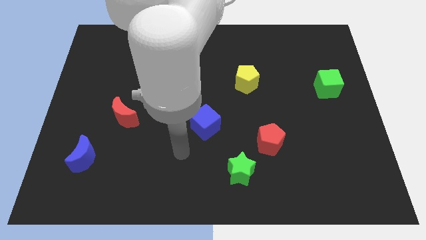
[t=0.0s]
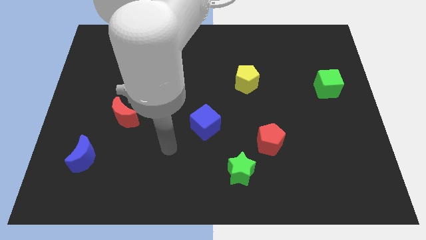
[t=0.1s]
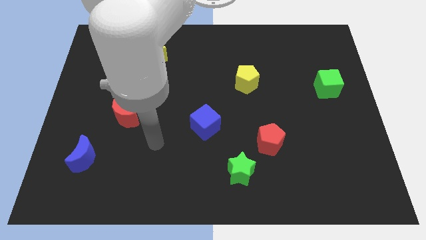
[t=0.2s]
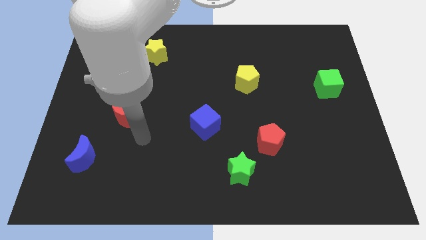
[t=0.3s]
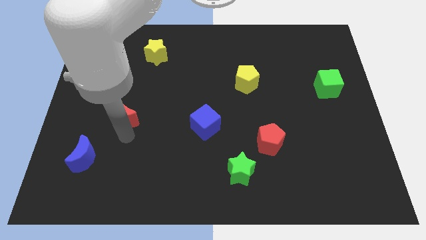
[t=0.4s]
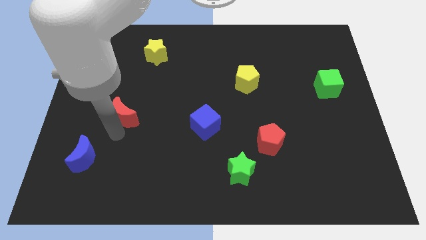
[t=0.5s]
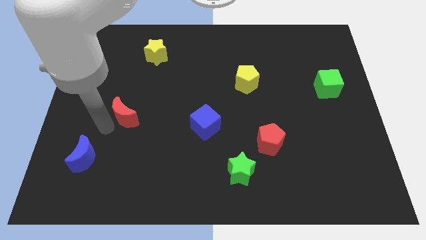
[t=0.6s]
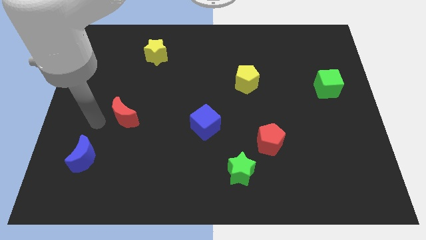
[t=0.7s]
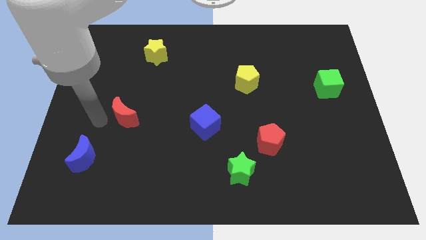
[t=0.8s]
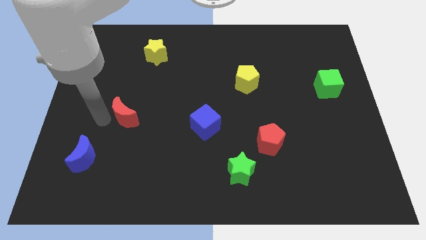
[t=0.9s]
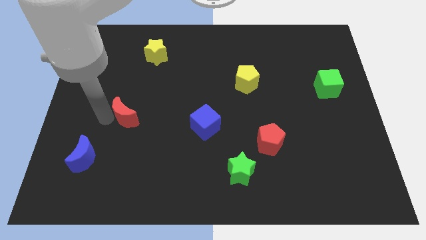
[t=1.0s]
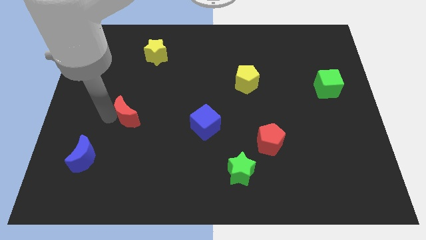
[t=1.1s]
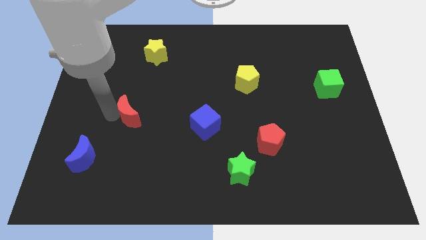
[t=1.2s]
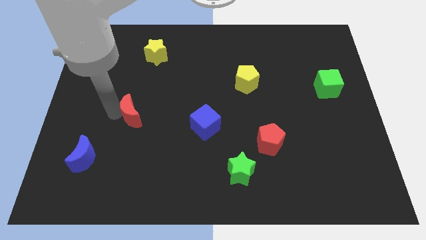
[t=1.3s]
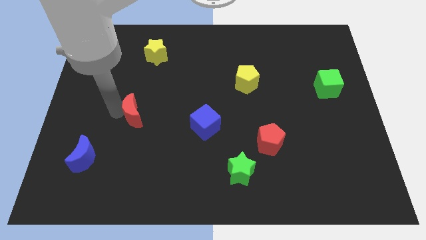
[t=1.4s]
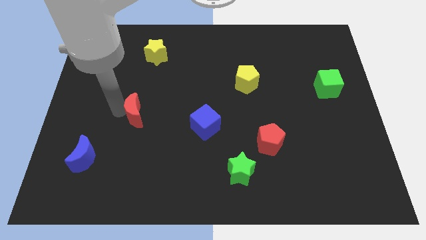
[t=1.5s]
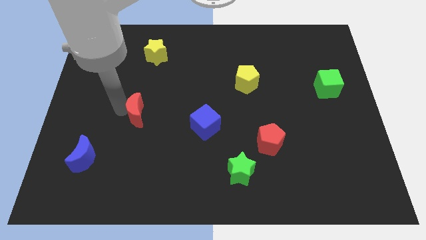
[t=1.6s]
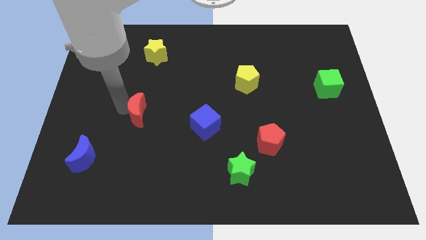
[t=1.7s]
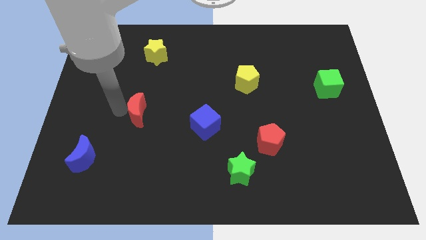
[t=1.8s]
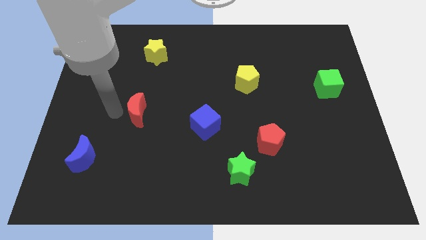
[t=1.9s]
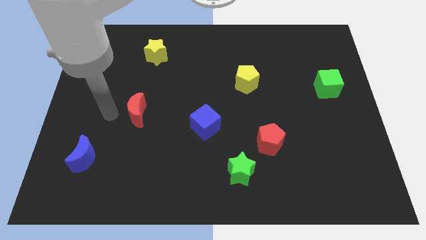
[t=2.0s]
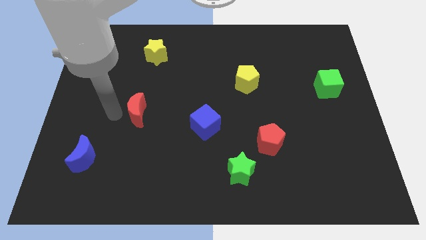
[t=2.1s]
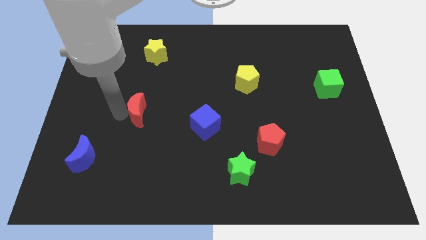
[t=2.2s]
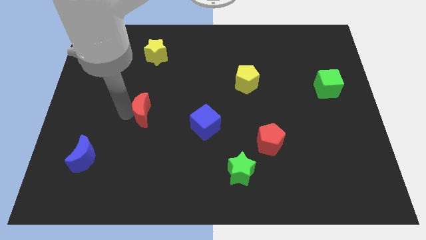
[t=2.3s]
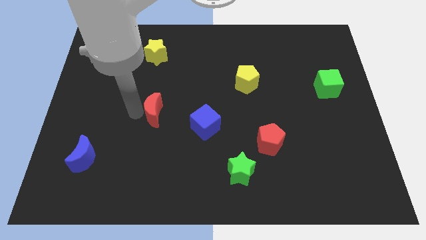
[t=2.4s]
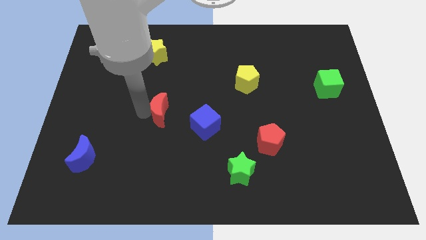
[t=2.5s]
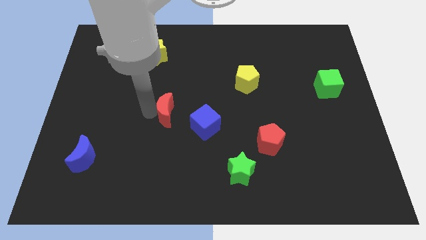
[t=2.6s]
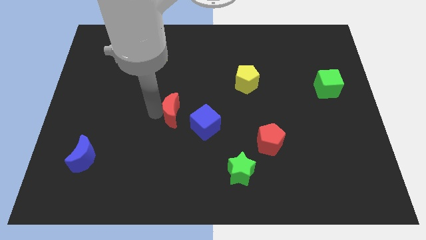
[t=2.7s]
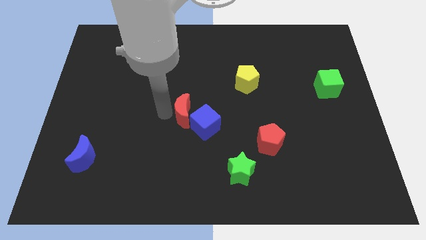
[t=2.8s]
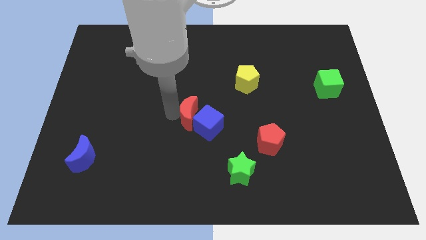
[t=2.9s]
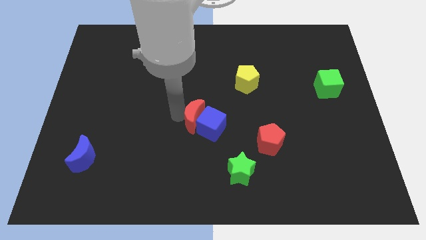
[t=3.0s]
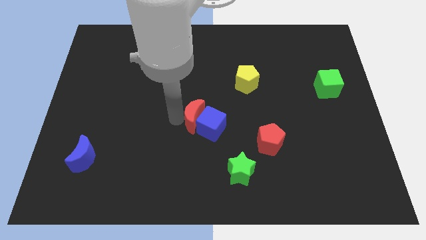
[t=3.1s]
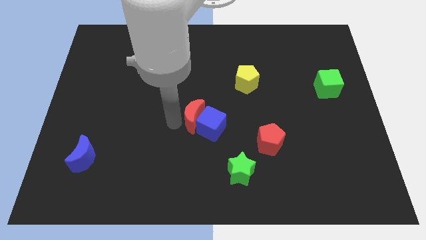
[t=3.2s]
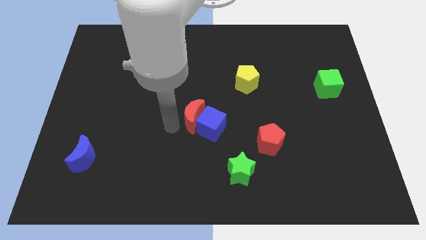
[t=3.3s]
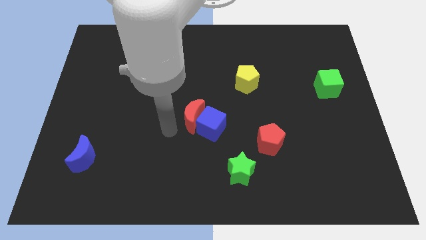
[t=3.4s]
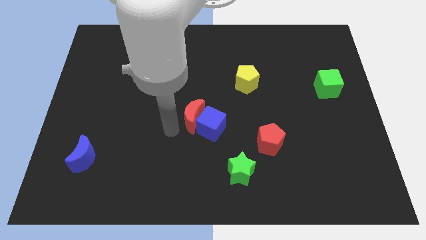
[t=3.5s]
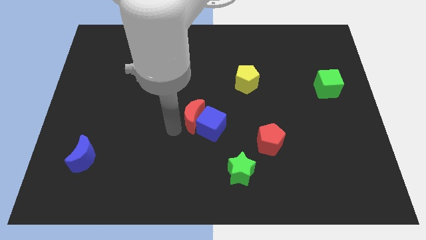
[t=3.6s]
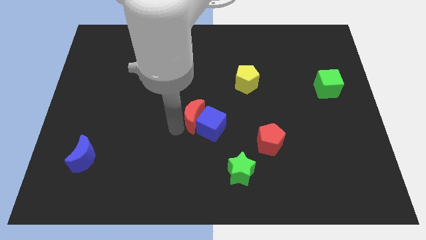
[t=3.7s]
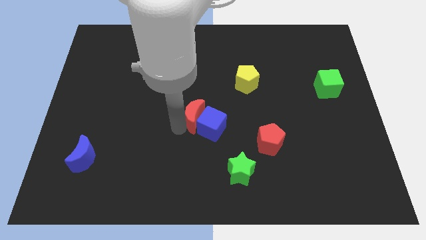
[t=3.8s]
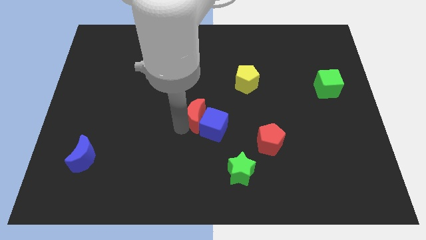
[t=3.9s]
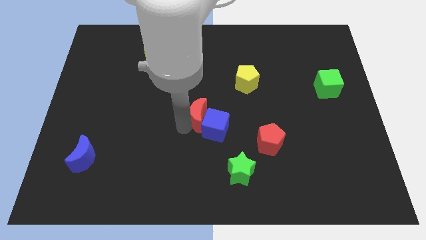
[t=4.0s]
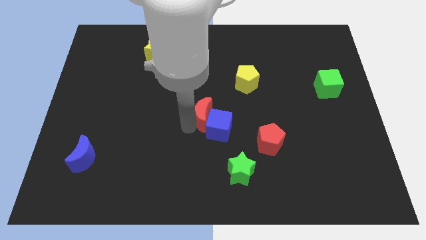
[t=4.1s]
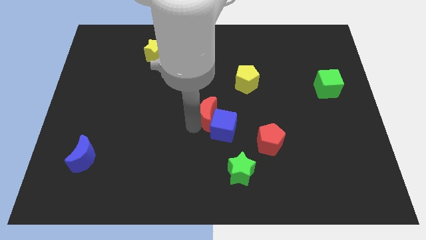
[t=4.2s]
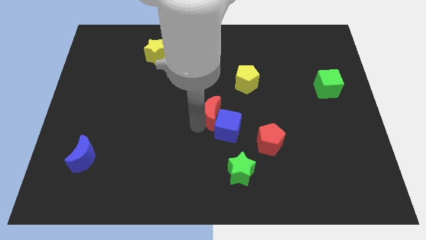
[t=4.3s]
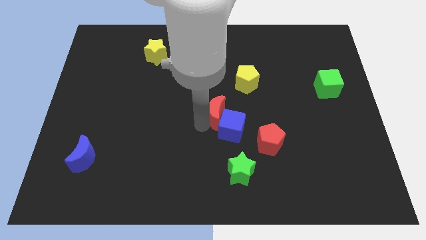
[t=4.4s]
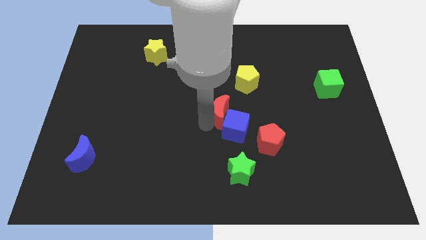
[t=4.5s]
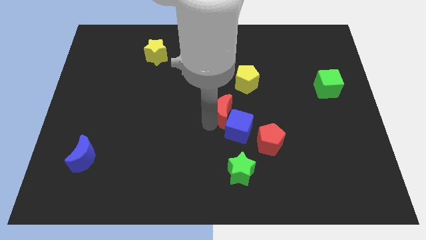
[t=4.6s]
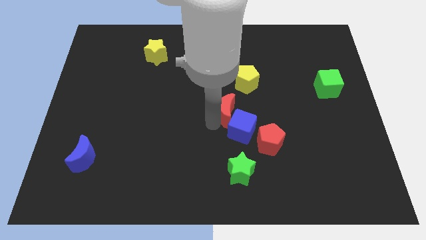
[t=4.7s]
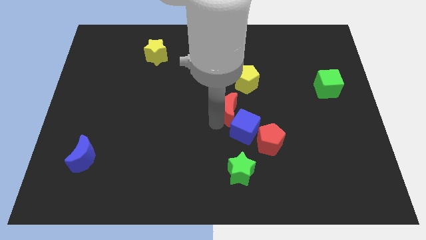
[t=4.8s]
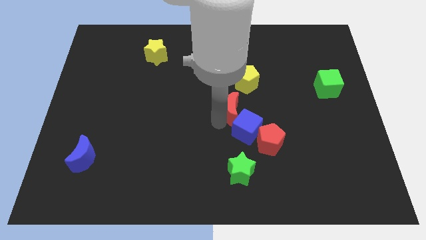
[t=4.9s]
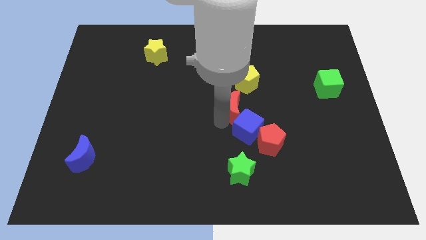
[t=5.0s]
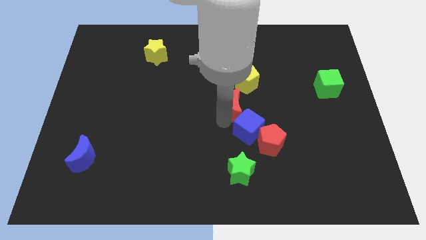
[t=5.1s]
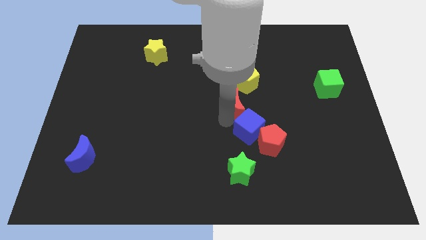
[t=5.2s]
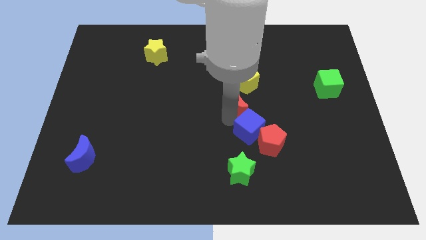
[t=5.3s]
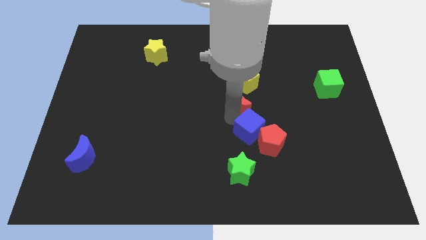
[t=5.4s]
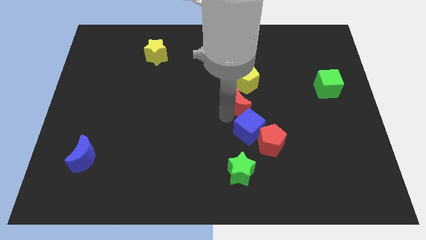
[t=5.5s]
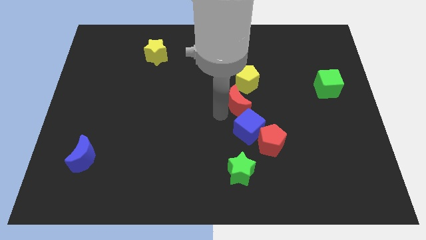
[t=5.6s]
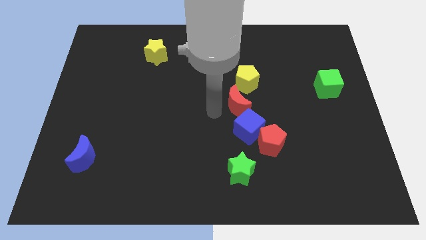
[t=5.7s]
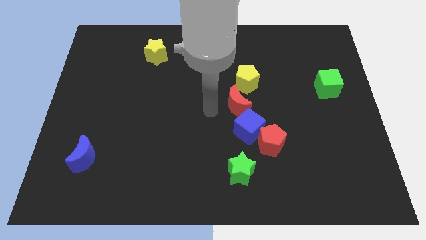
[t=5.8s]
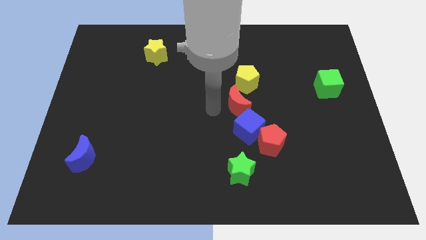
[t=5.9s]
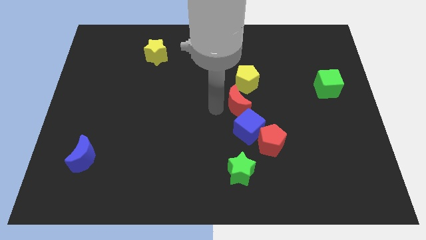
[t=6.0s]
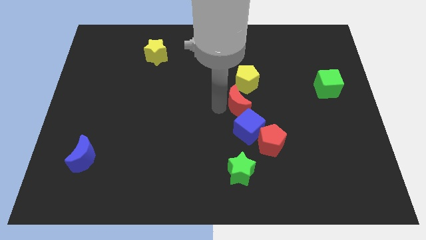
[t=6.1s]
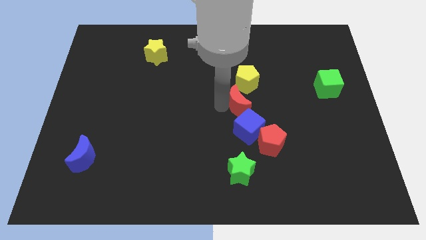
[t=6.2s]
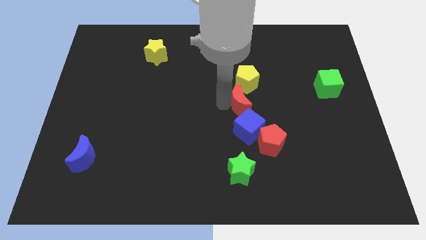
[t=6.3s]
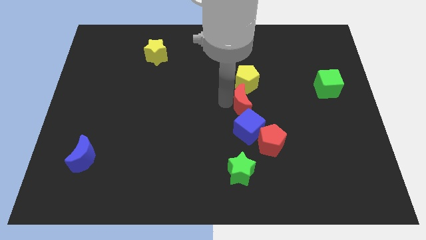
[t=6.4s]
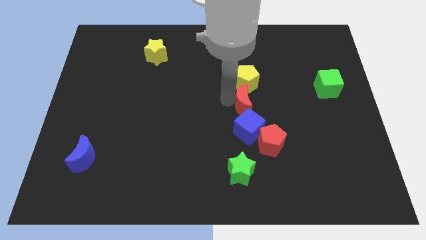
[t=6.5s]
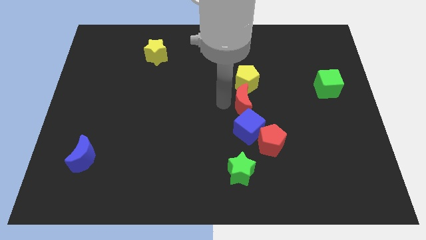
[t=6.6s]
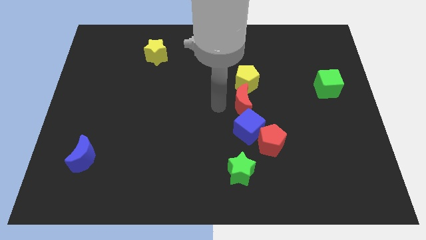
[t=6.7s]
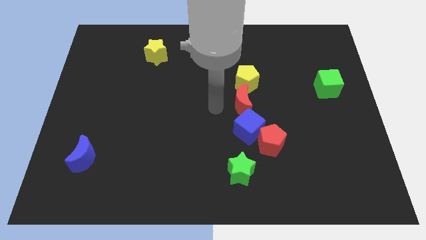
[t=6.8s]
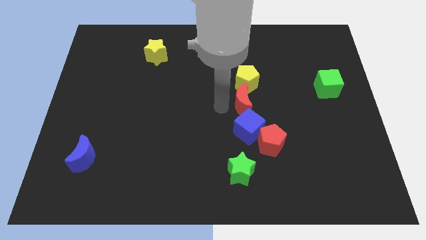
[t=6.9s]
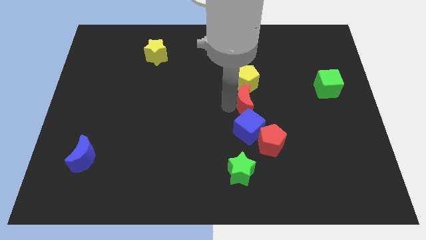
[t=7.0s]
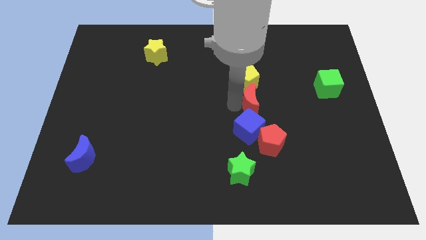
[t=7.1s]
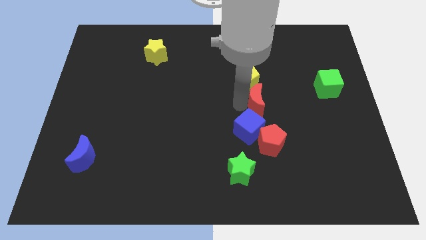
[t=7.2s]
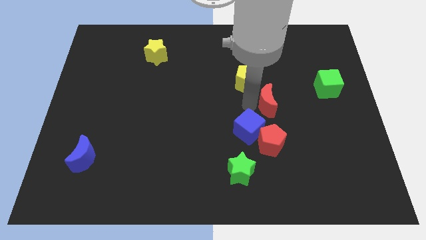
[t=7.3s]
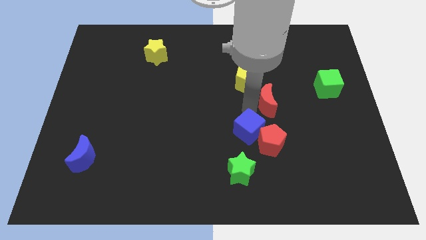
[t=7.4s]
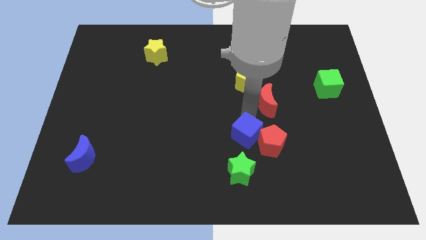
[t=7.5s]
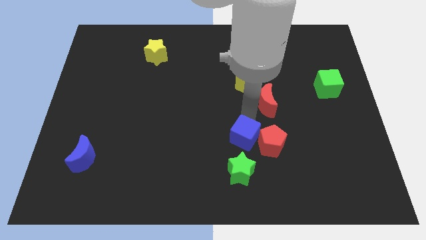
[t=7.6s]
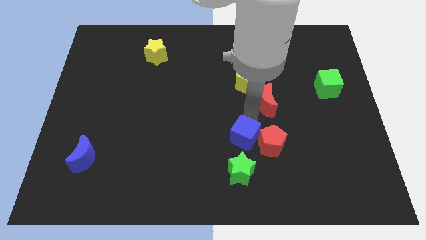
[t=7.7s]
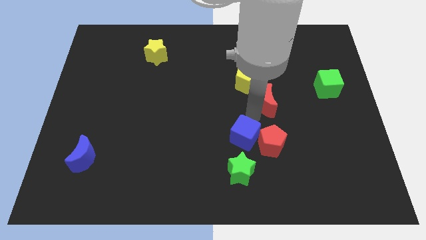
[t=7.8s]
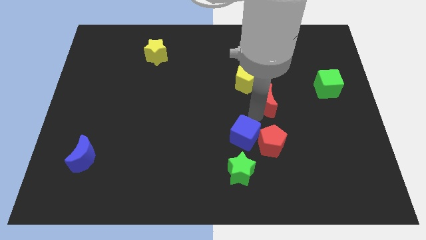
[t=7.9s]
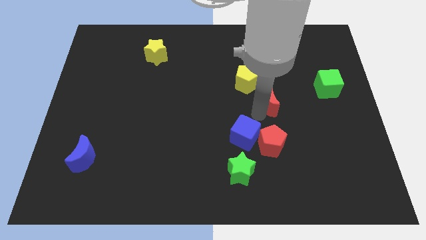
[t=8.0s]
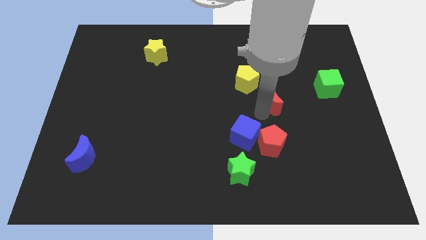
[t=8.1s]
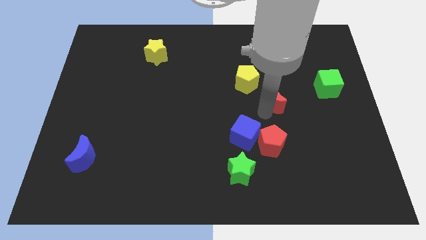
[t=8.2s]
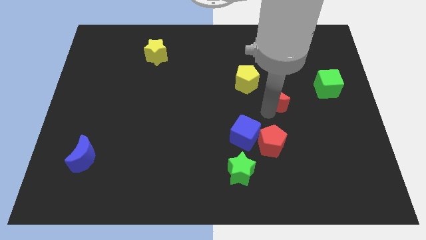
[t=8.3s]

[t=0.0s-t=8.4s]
move the red moon left of the green cube
